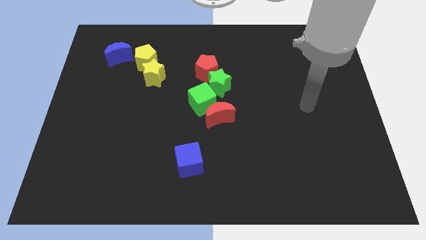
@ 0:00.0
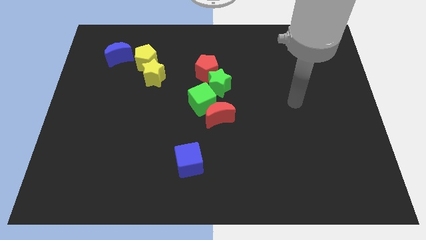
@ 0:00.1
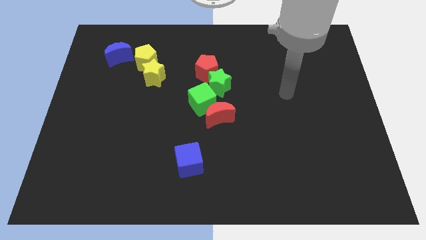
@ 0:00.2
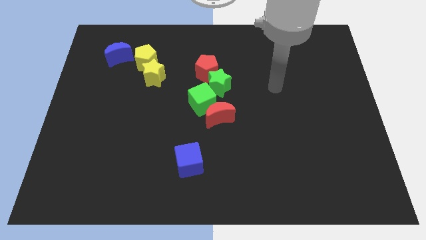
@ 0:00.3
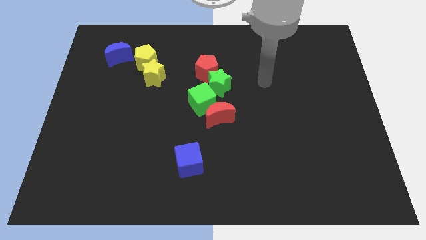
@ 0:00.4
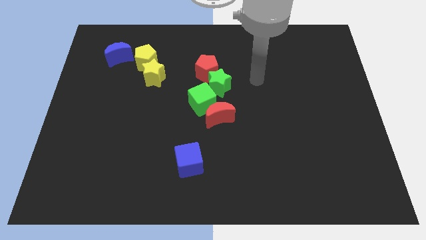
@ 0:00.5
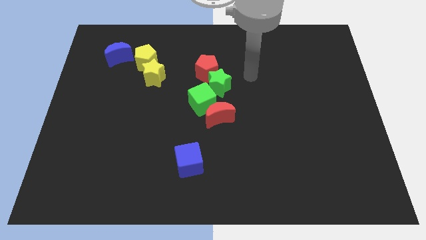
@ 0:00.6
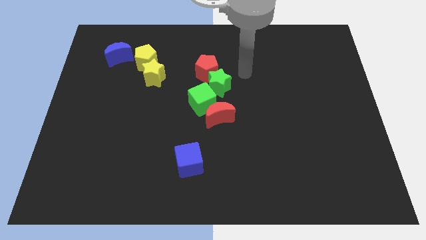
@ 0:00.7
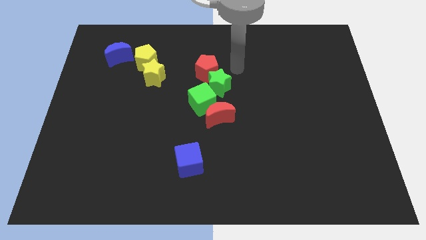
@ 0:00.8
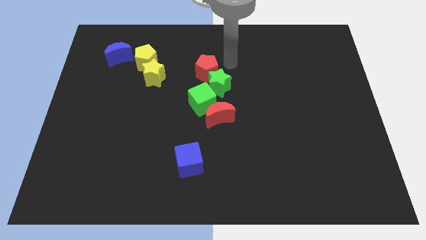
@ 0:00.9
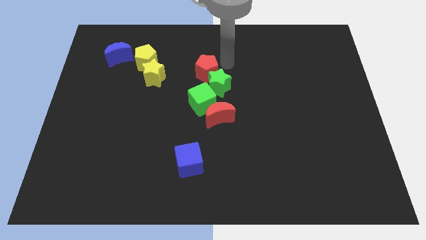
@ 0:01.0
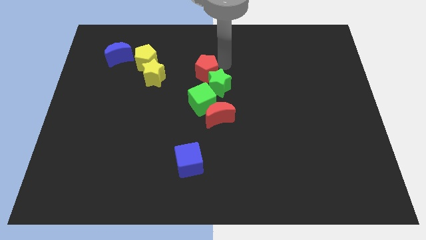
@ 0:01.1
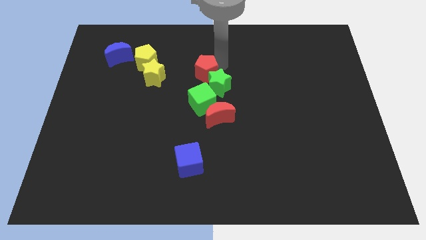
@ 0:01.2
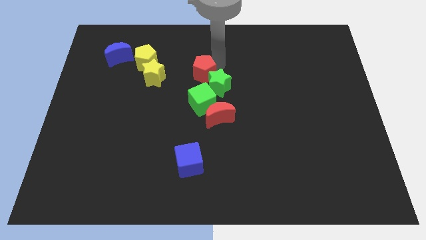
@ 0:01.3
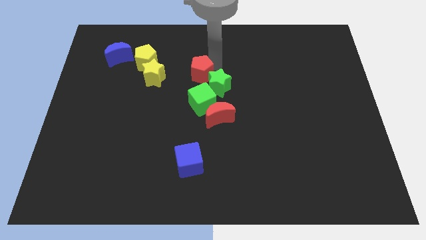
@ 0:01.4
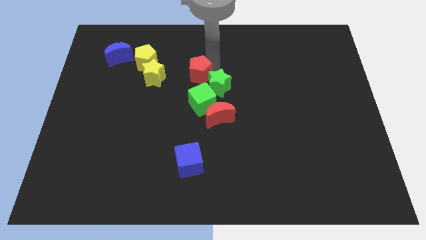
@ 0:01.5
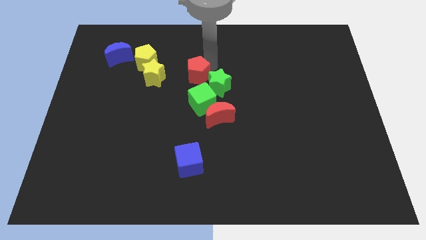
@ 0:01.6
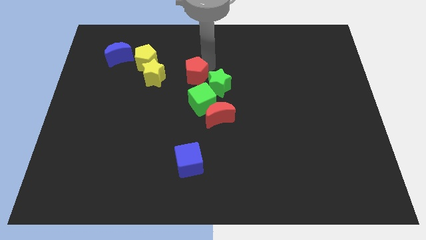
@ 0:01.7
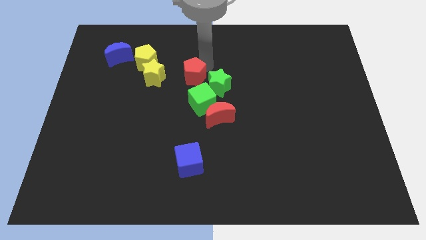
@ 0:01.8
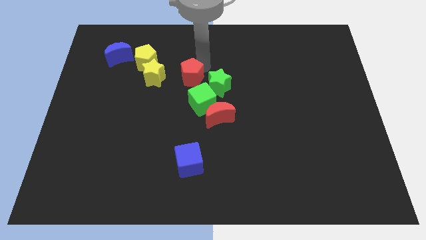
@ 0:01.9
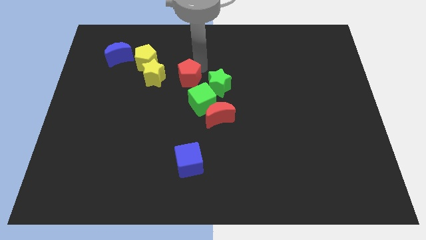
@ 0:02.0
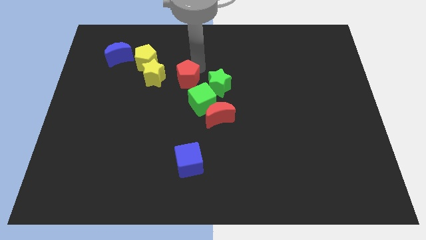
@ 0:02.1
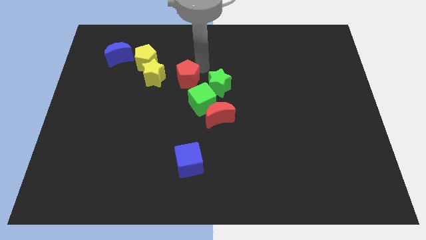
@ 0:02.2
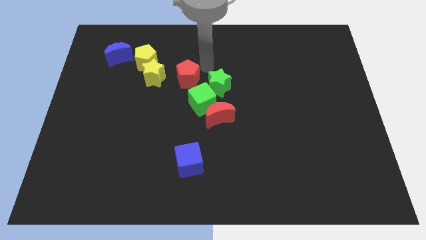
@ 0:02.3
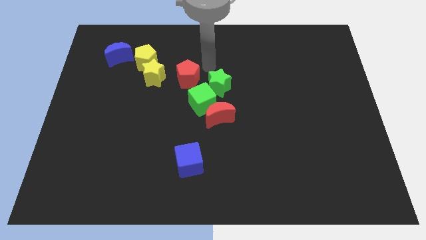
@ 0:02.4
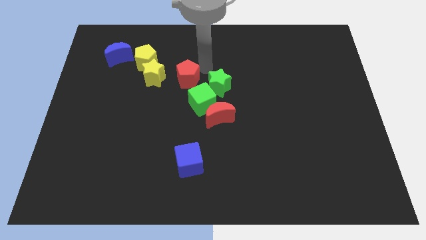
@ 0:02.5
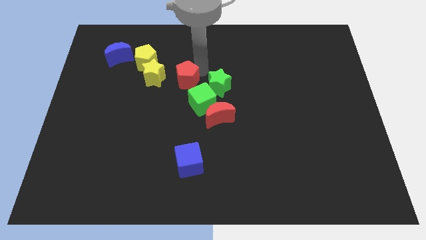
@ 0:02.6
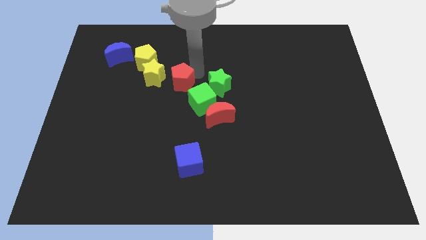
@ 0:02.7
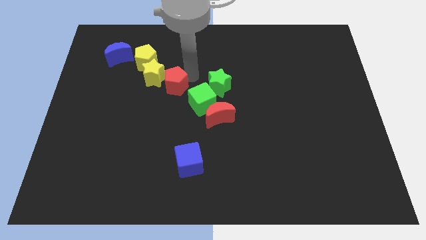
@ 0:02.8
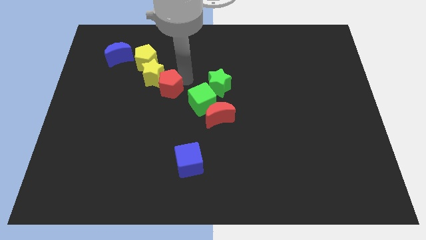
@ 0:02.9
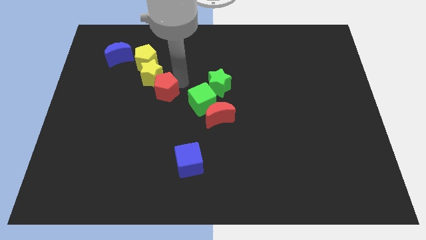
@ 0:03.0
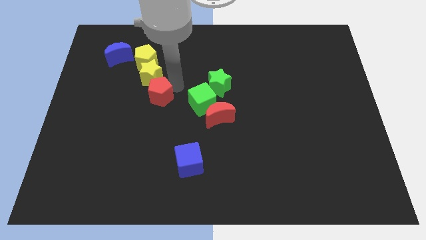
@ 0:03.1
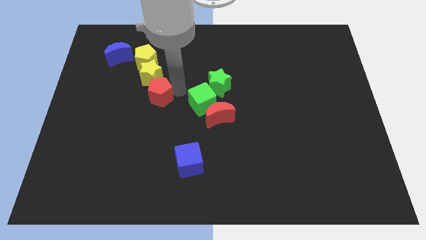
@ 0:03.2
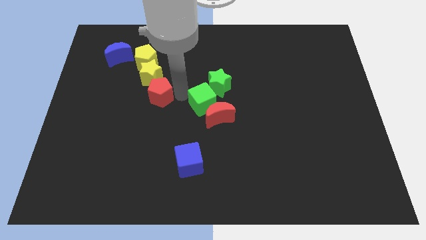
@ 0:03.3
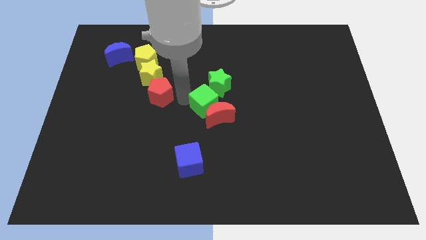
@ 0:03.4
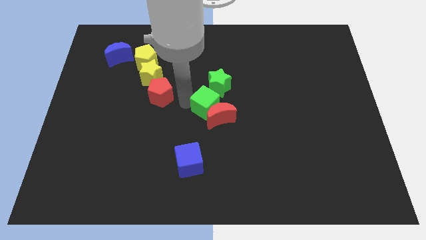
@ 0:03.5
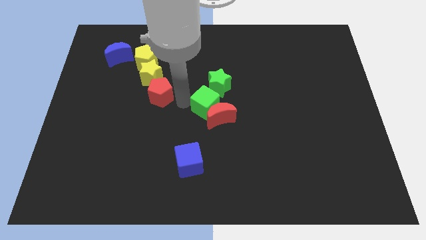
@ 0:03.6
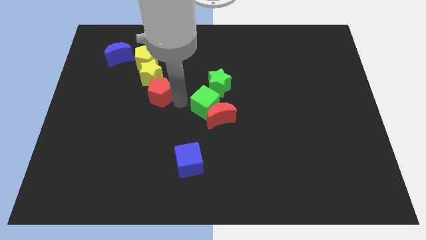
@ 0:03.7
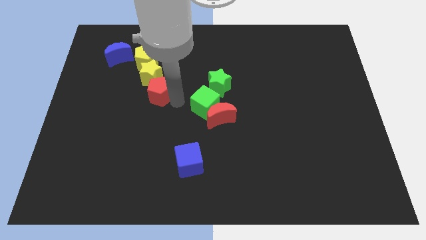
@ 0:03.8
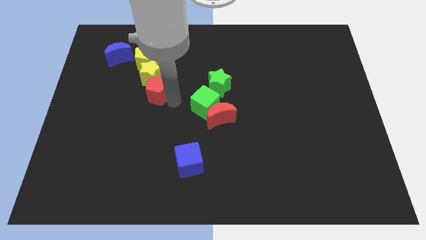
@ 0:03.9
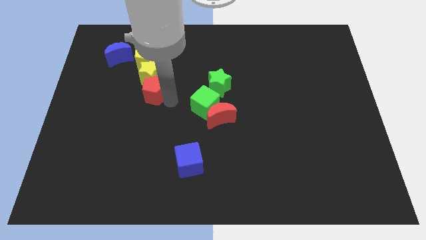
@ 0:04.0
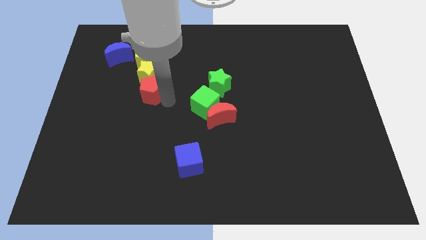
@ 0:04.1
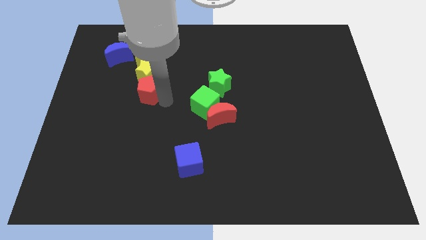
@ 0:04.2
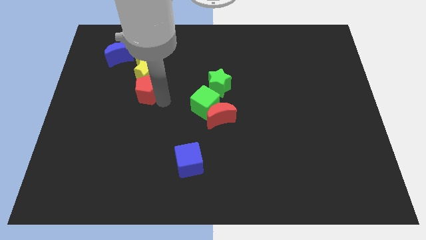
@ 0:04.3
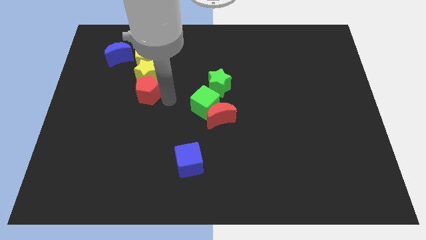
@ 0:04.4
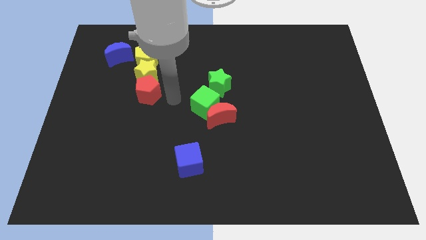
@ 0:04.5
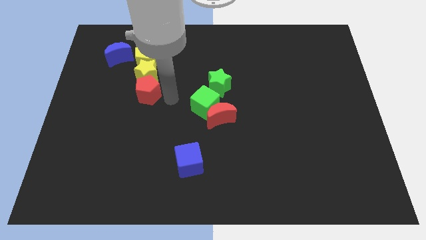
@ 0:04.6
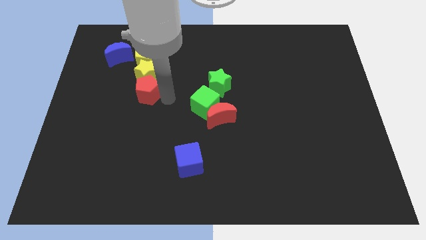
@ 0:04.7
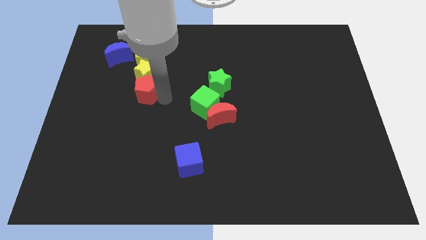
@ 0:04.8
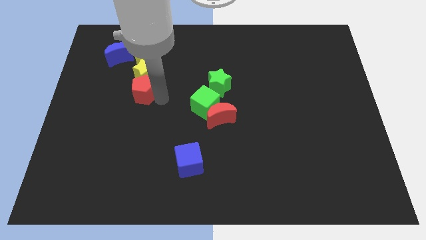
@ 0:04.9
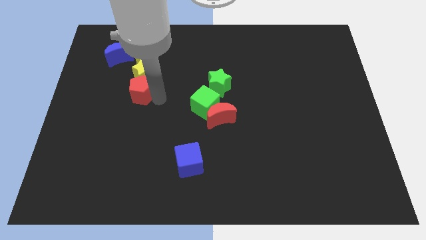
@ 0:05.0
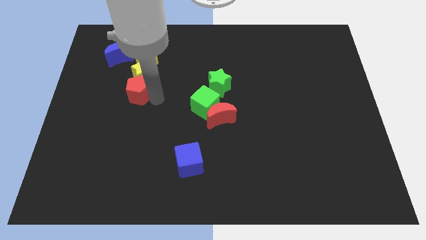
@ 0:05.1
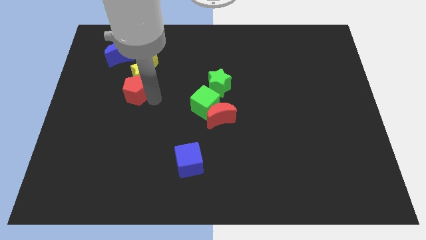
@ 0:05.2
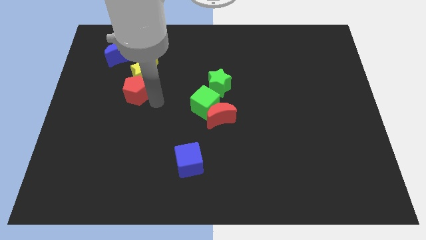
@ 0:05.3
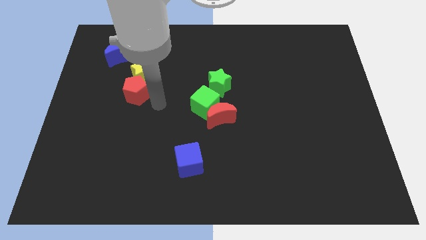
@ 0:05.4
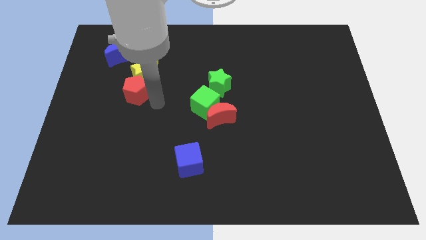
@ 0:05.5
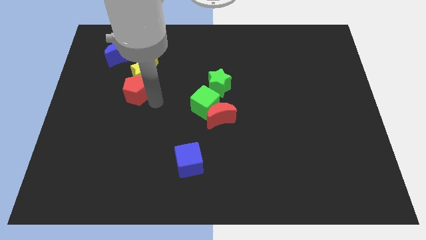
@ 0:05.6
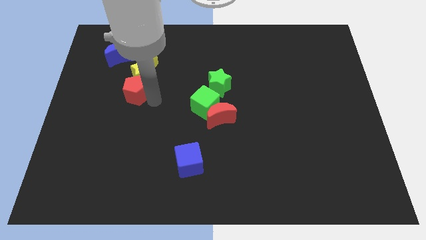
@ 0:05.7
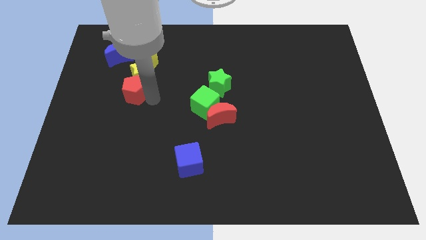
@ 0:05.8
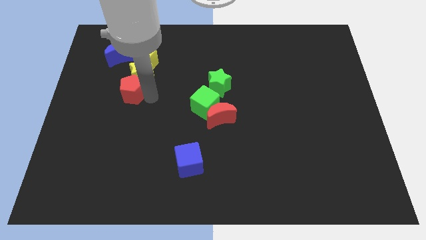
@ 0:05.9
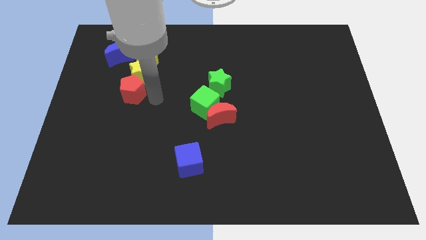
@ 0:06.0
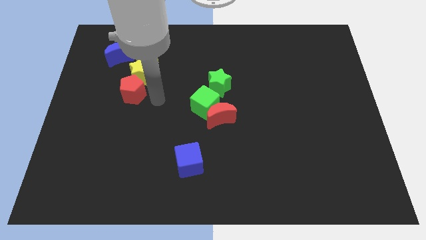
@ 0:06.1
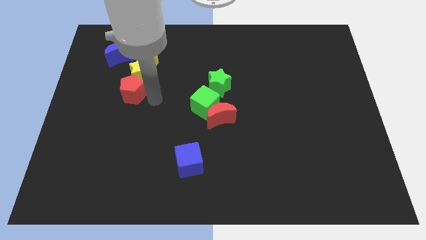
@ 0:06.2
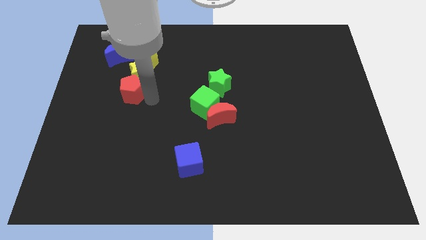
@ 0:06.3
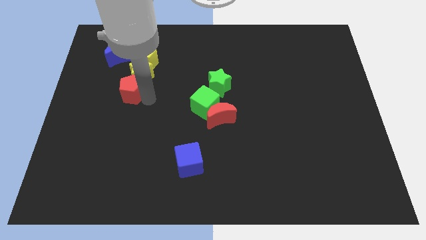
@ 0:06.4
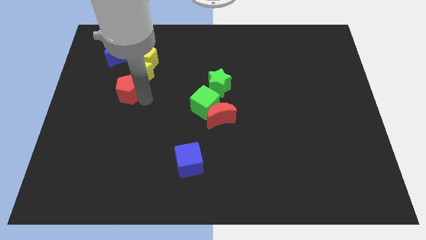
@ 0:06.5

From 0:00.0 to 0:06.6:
put the red pentagon below the blue moon

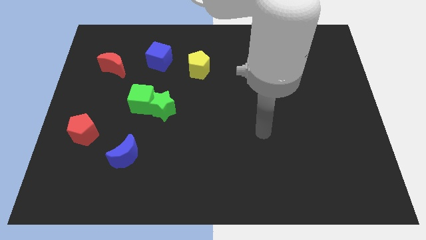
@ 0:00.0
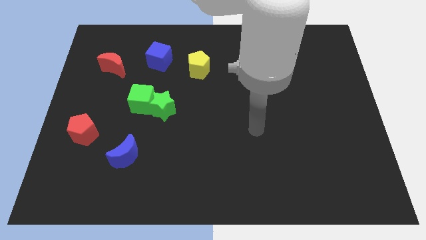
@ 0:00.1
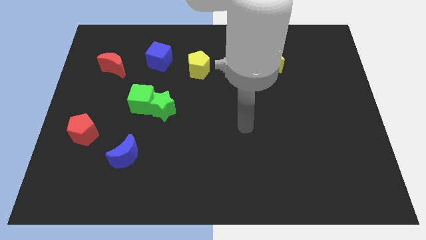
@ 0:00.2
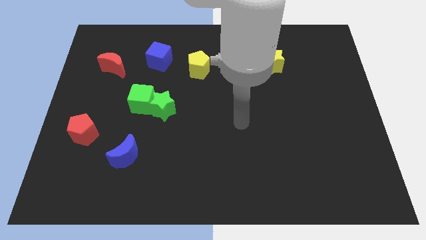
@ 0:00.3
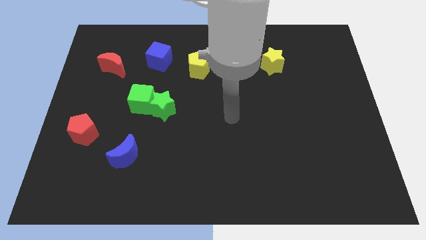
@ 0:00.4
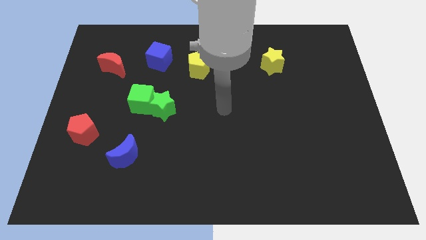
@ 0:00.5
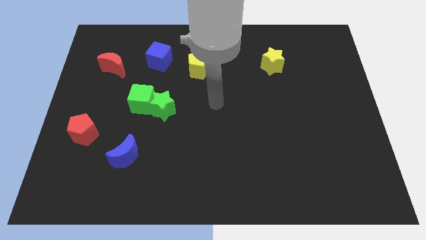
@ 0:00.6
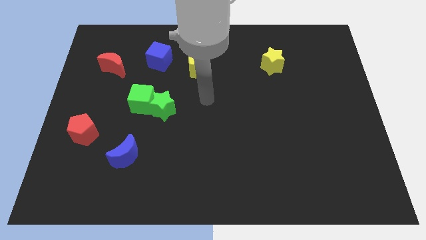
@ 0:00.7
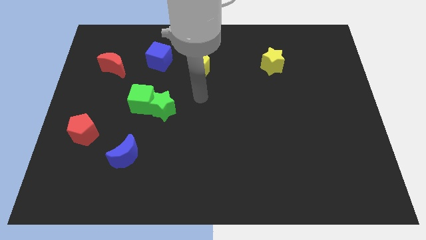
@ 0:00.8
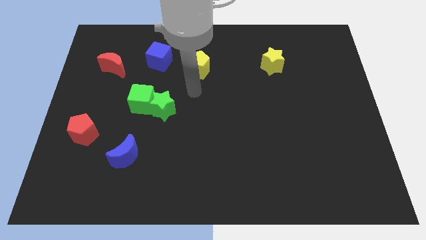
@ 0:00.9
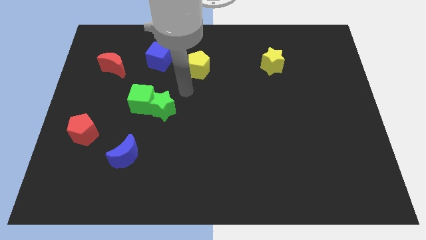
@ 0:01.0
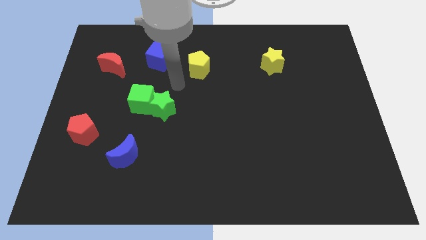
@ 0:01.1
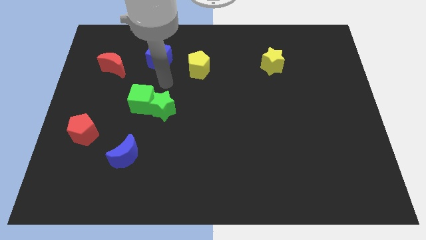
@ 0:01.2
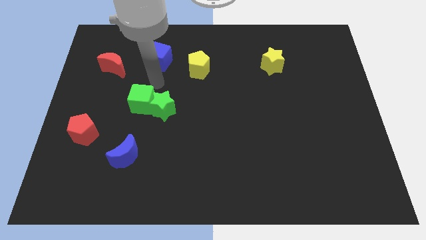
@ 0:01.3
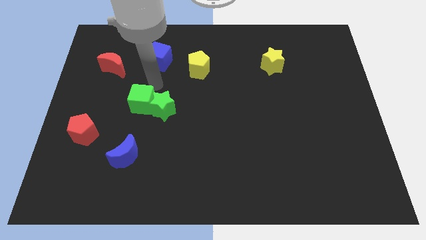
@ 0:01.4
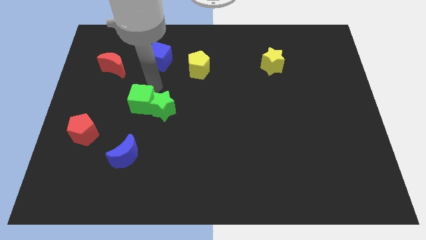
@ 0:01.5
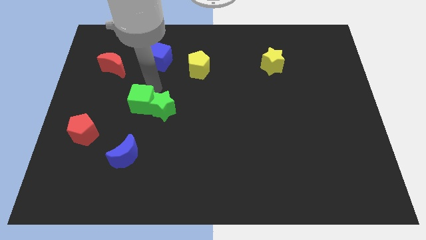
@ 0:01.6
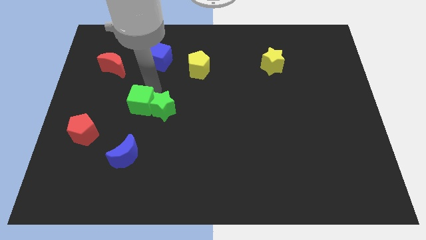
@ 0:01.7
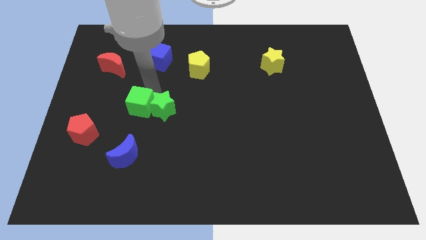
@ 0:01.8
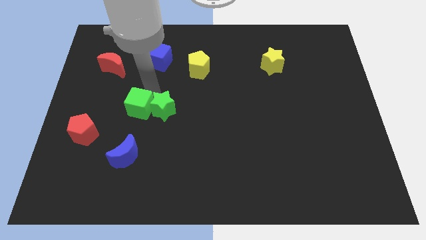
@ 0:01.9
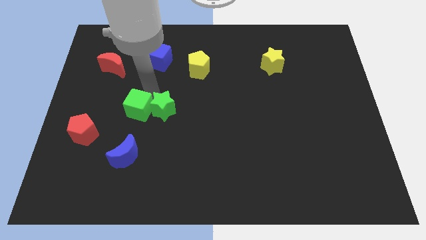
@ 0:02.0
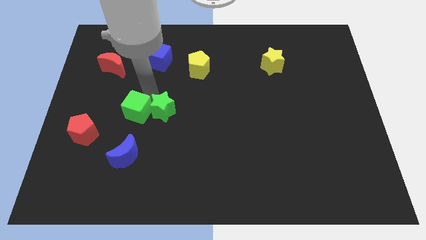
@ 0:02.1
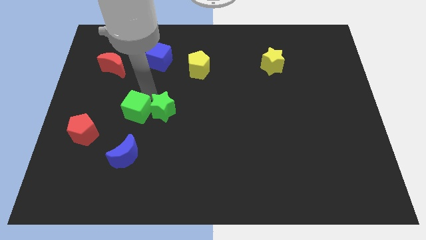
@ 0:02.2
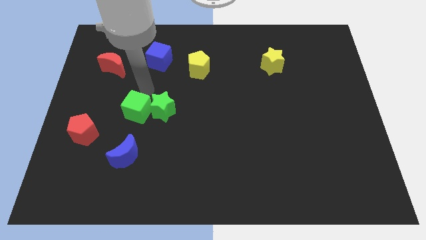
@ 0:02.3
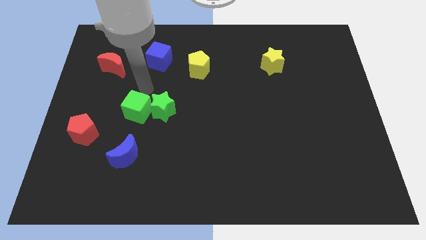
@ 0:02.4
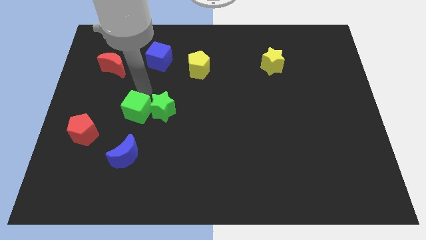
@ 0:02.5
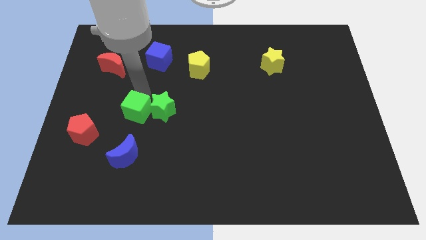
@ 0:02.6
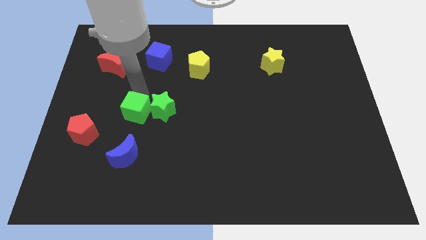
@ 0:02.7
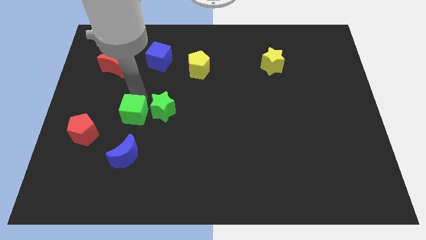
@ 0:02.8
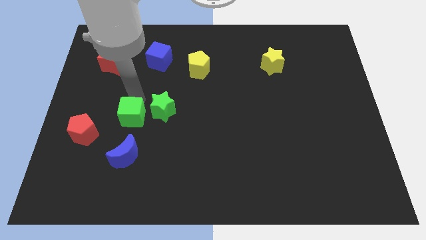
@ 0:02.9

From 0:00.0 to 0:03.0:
push the green cube just right of the red pentagon
